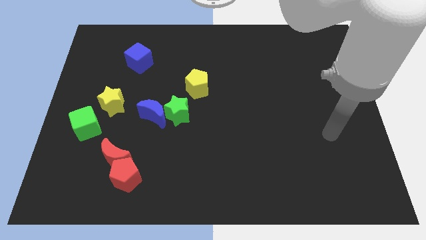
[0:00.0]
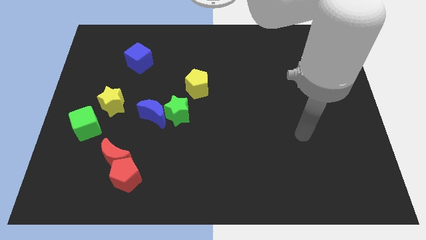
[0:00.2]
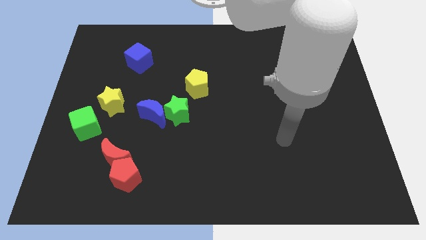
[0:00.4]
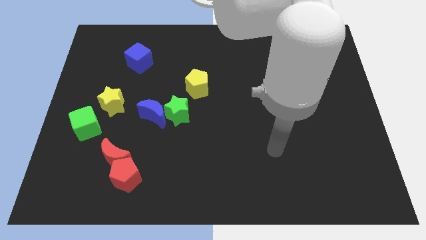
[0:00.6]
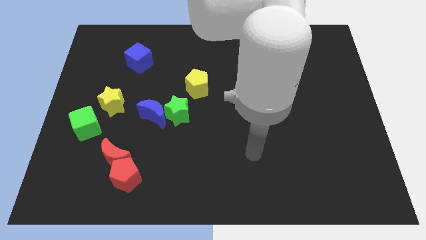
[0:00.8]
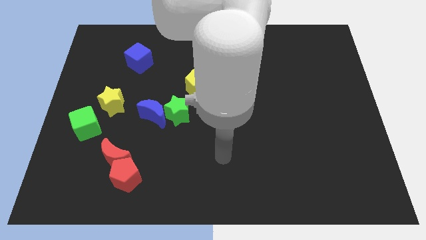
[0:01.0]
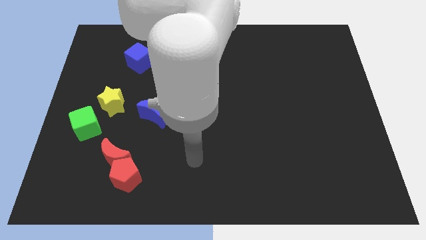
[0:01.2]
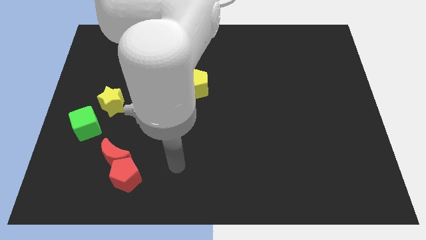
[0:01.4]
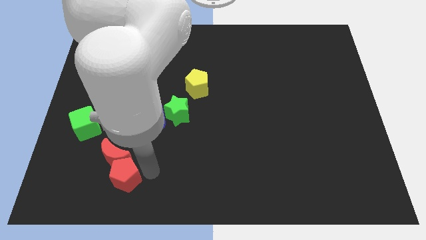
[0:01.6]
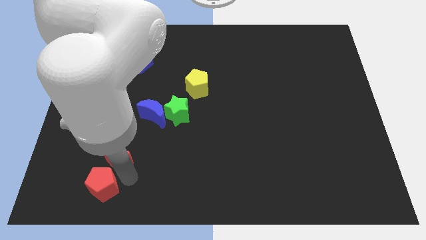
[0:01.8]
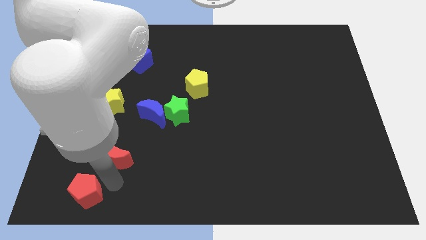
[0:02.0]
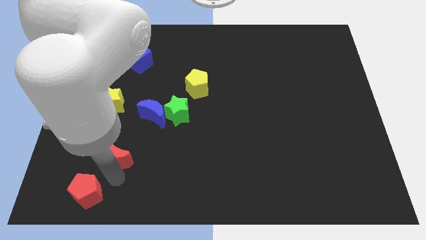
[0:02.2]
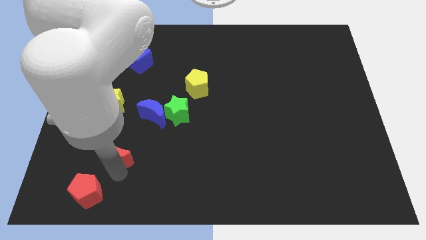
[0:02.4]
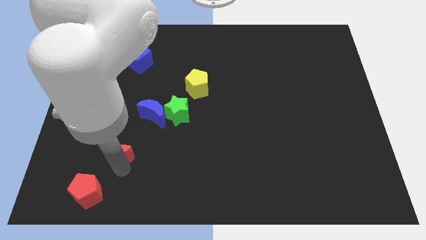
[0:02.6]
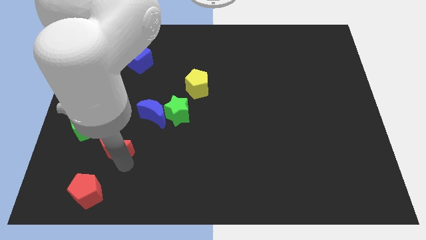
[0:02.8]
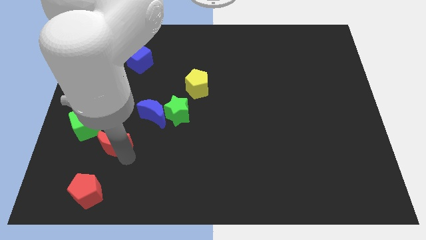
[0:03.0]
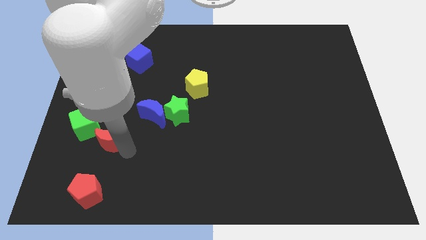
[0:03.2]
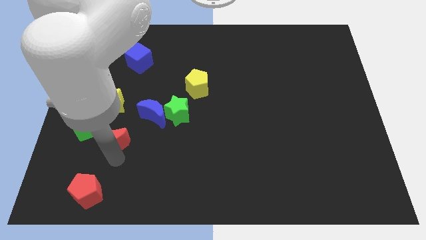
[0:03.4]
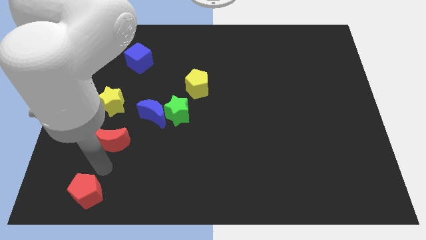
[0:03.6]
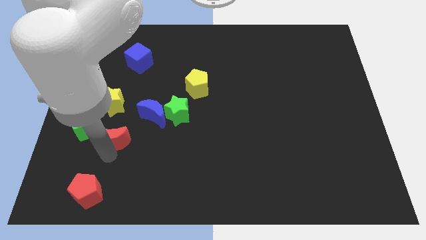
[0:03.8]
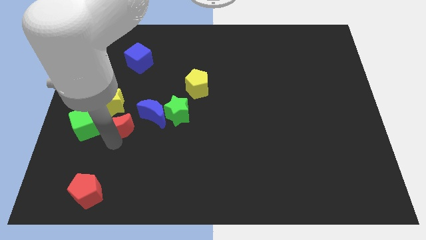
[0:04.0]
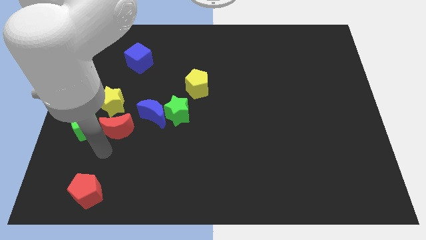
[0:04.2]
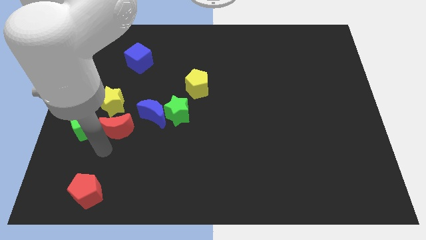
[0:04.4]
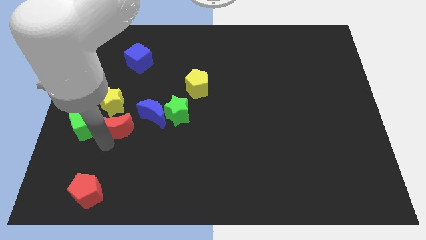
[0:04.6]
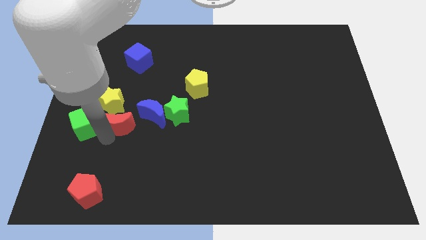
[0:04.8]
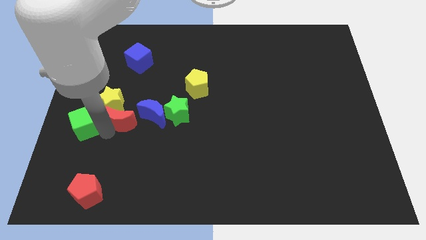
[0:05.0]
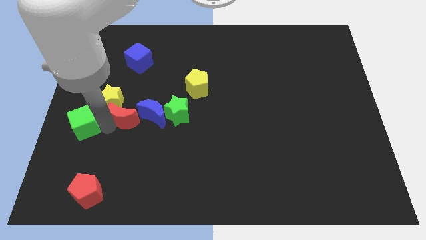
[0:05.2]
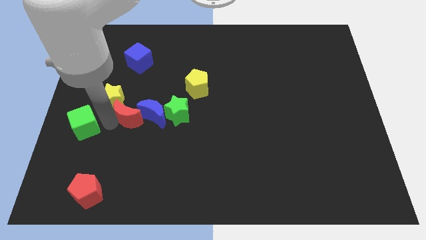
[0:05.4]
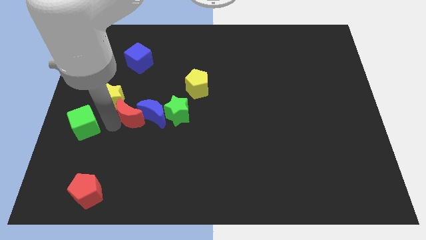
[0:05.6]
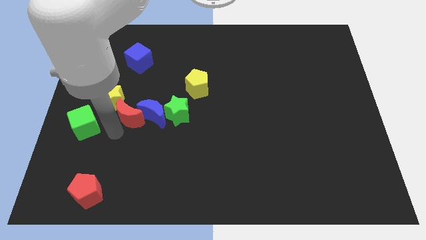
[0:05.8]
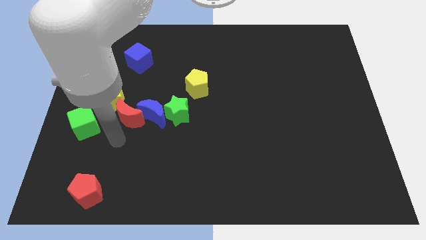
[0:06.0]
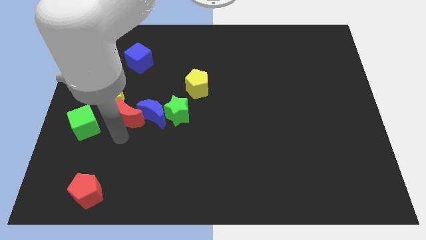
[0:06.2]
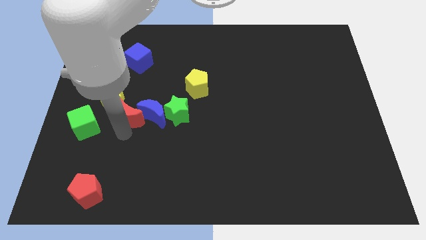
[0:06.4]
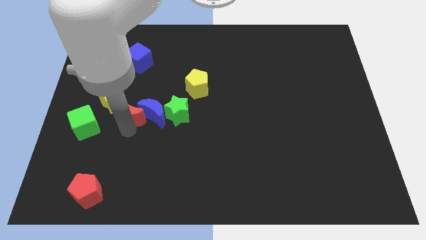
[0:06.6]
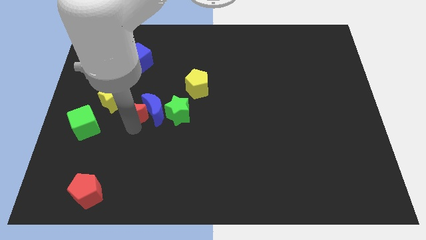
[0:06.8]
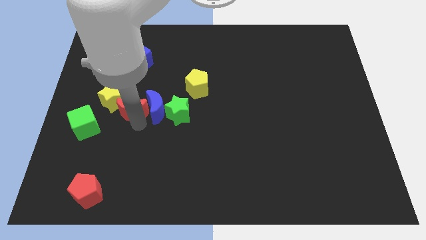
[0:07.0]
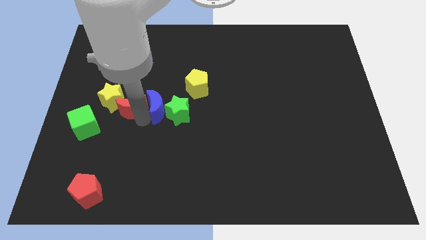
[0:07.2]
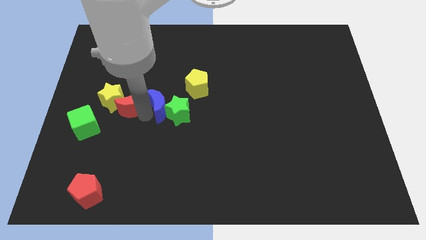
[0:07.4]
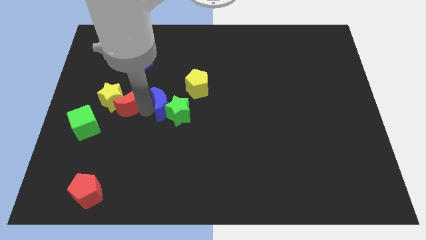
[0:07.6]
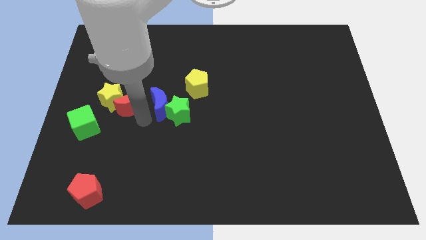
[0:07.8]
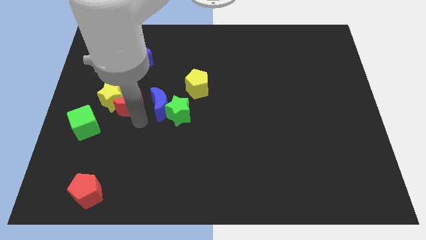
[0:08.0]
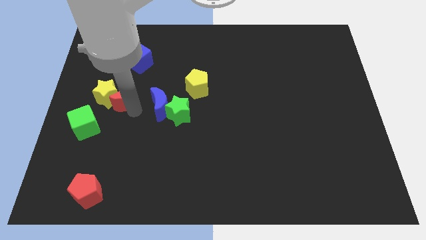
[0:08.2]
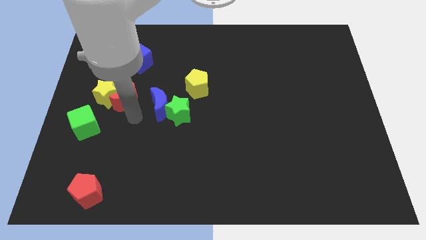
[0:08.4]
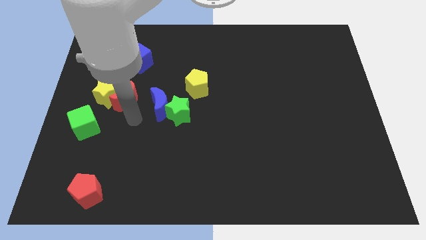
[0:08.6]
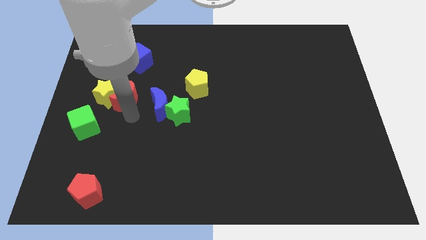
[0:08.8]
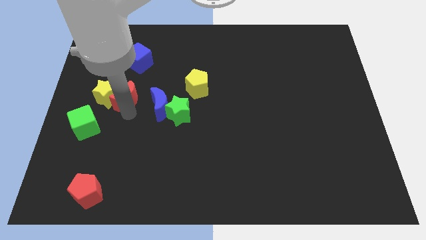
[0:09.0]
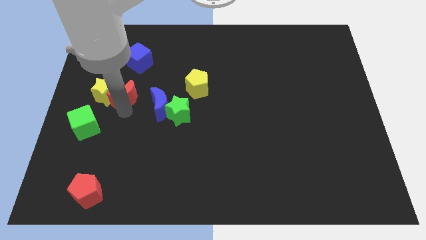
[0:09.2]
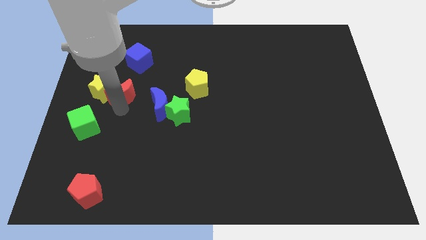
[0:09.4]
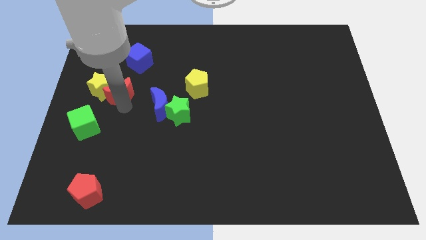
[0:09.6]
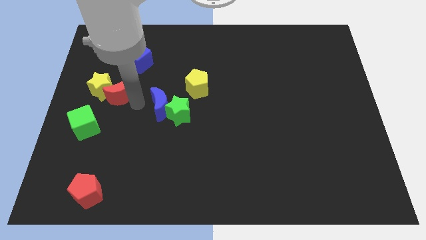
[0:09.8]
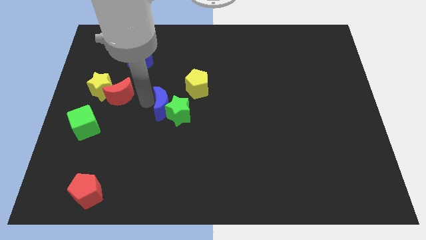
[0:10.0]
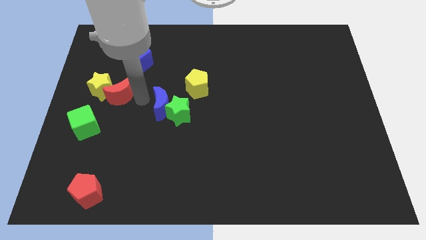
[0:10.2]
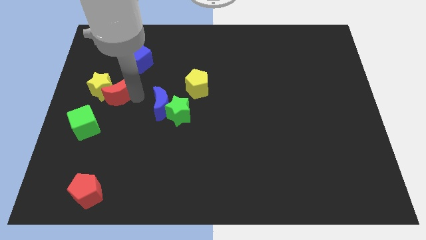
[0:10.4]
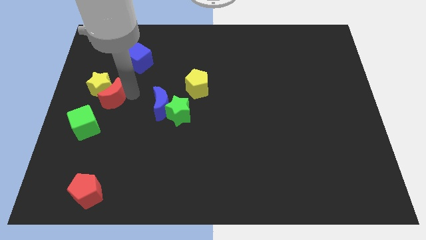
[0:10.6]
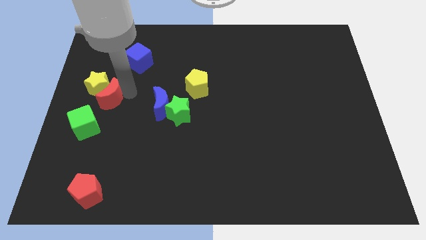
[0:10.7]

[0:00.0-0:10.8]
put the red moon above the green cube

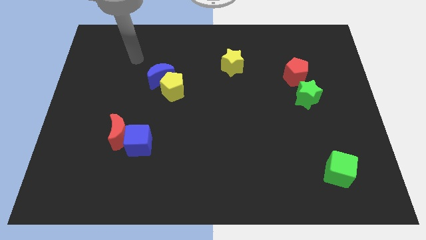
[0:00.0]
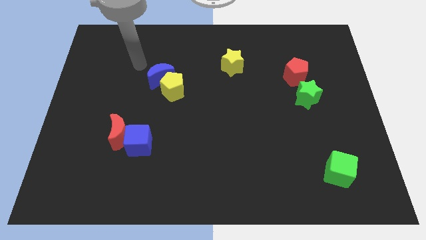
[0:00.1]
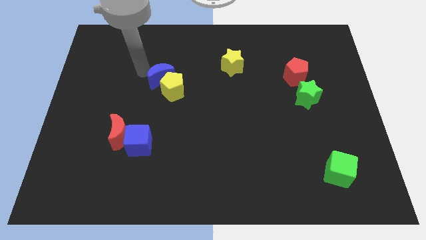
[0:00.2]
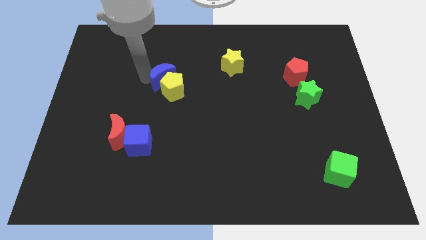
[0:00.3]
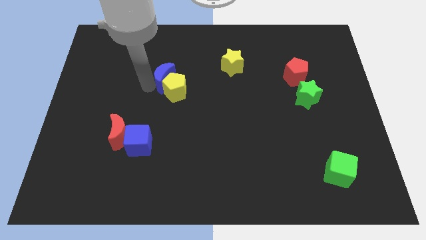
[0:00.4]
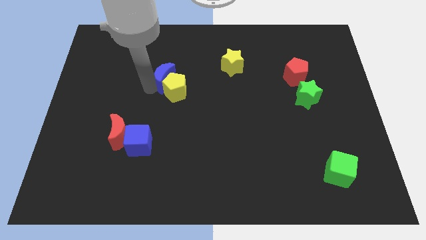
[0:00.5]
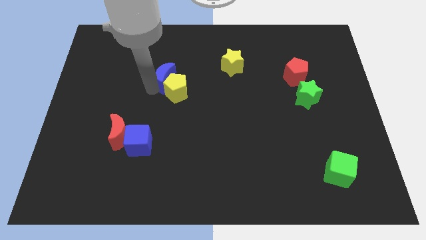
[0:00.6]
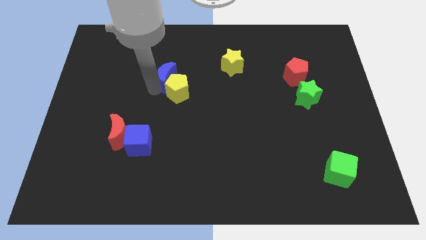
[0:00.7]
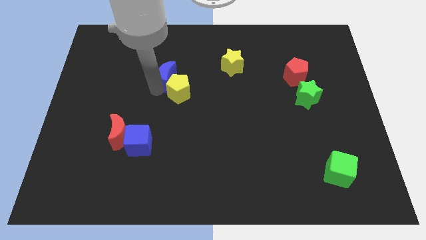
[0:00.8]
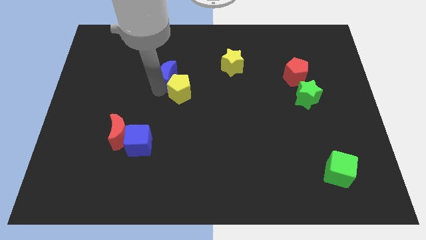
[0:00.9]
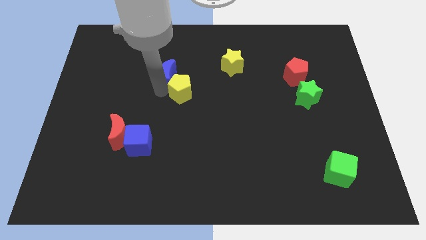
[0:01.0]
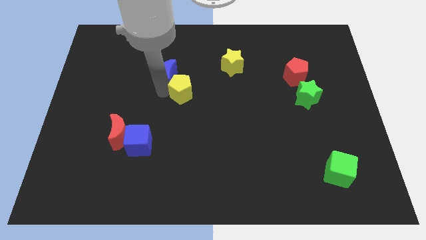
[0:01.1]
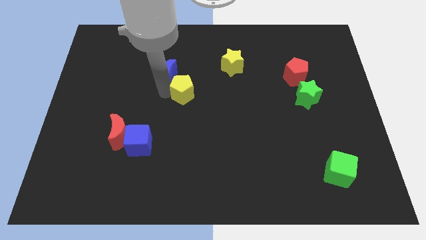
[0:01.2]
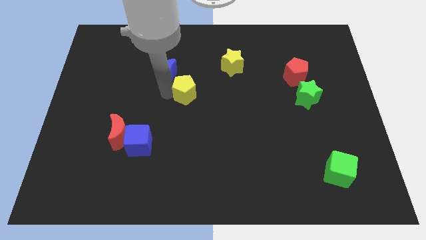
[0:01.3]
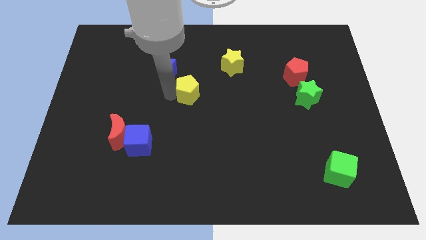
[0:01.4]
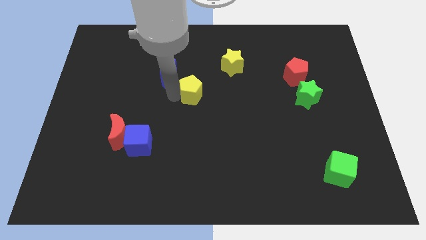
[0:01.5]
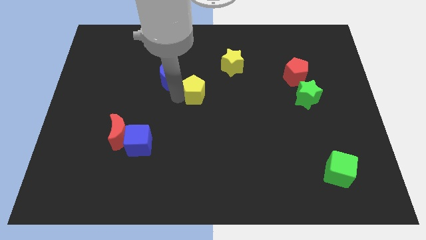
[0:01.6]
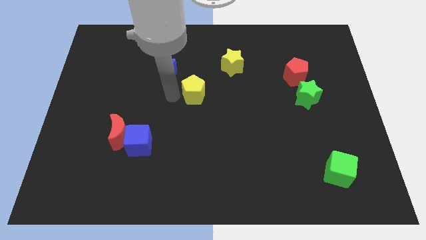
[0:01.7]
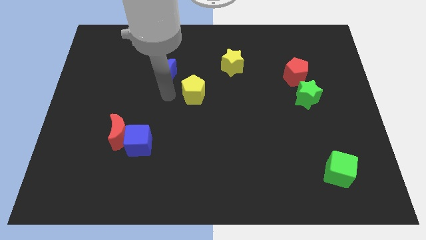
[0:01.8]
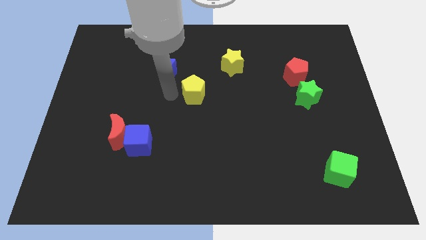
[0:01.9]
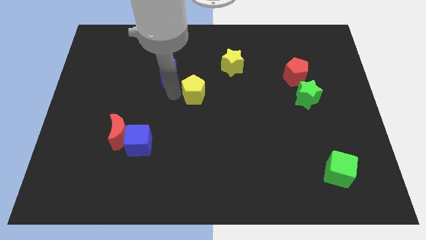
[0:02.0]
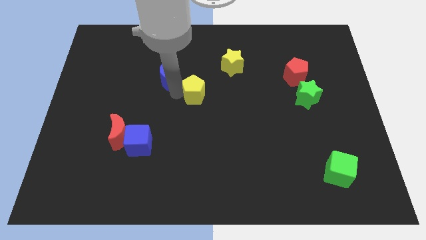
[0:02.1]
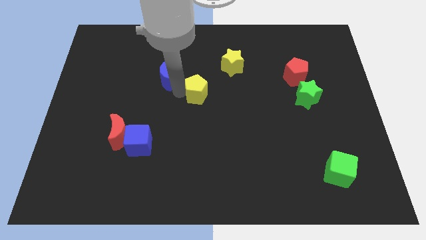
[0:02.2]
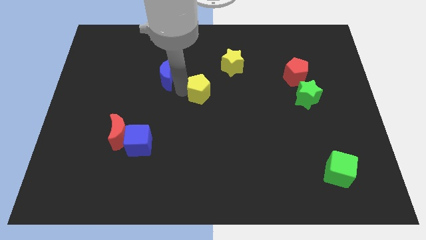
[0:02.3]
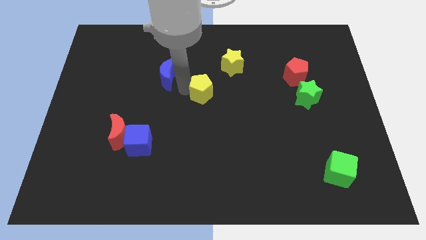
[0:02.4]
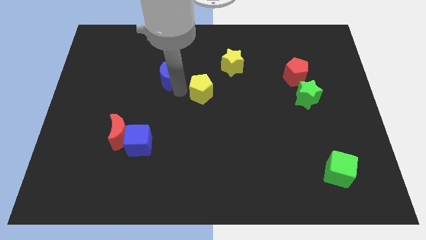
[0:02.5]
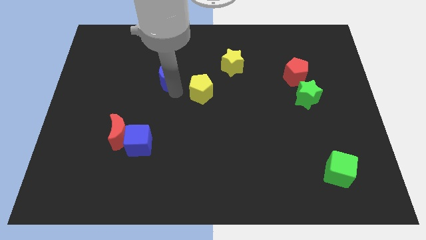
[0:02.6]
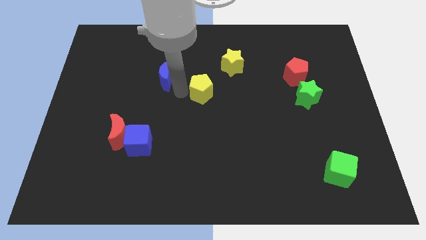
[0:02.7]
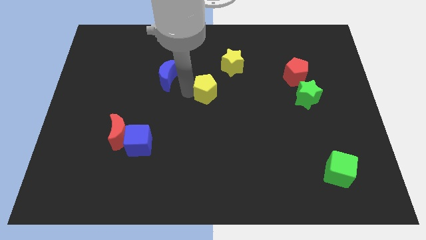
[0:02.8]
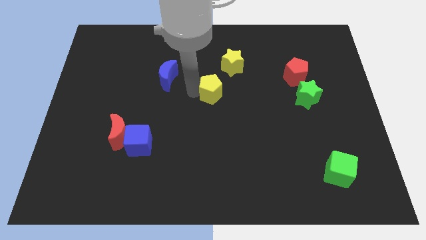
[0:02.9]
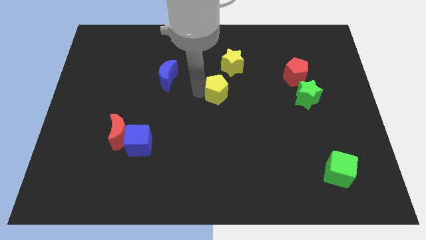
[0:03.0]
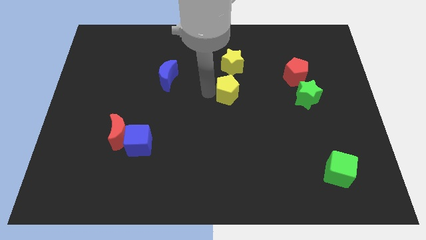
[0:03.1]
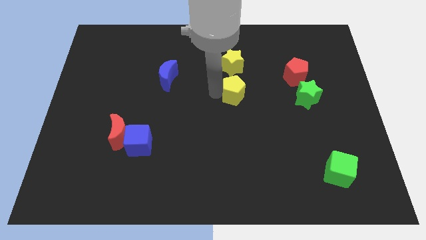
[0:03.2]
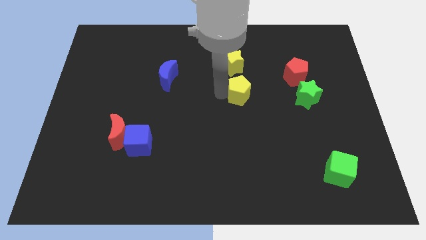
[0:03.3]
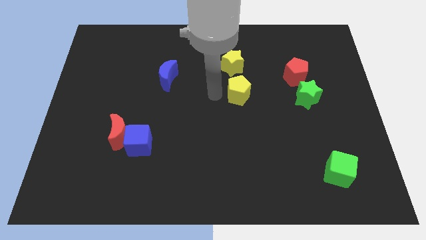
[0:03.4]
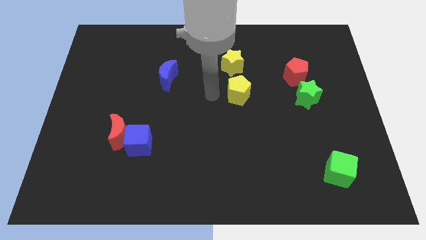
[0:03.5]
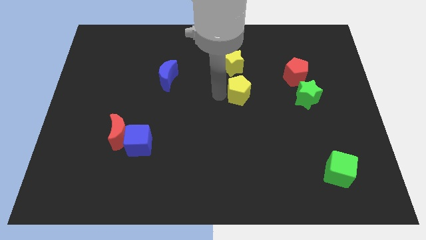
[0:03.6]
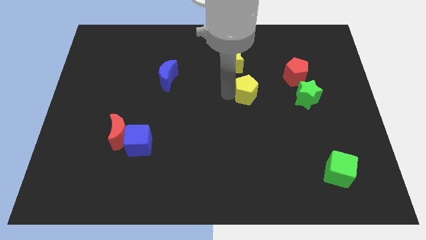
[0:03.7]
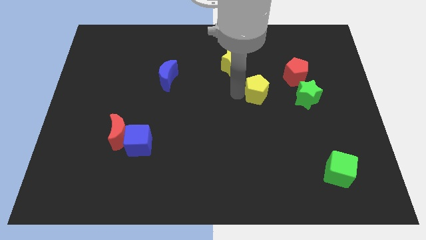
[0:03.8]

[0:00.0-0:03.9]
push the yellow pentagon to the bottom left side of the red pentagon
